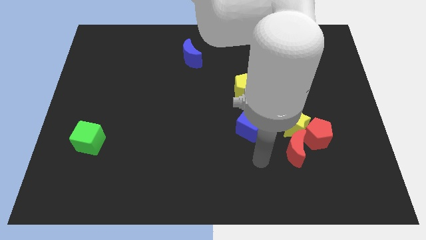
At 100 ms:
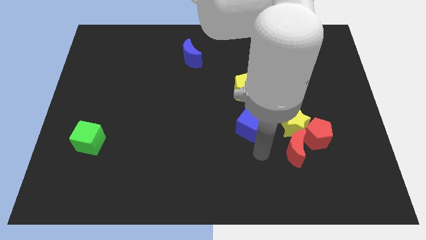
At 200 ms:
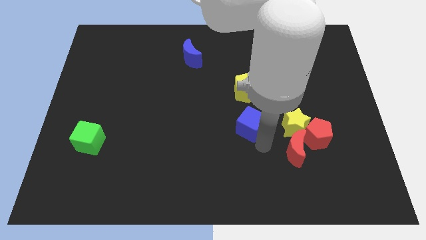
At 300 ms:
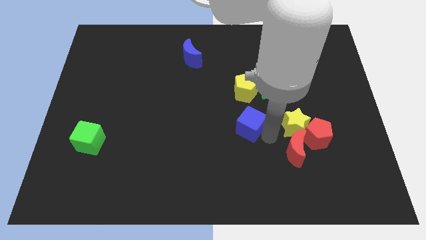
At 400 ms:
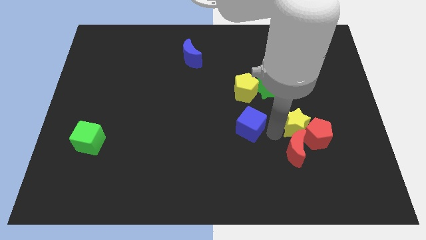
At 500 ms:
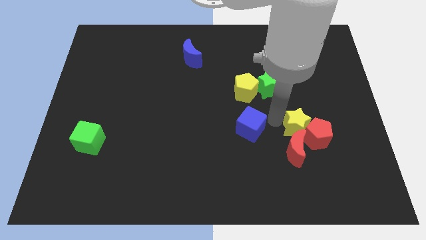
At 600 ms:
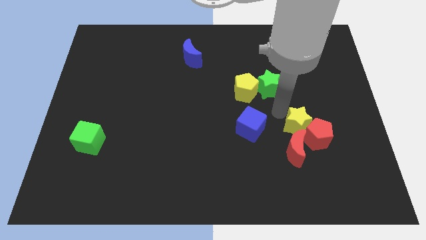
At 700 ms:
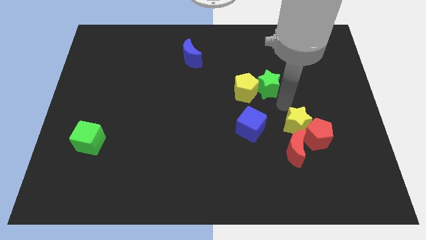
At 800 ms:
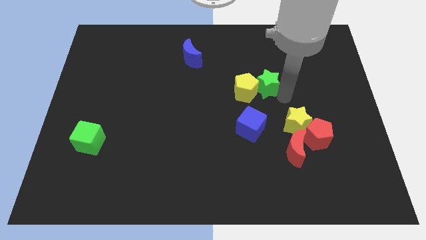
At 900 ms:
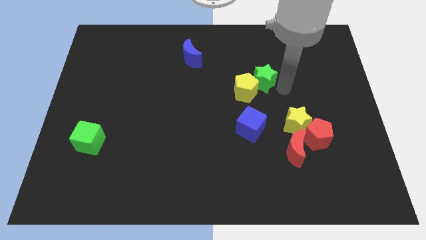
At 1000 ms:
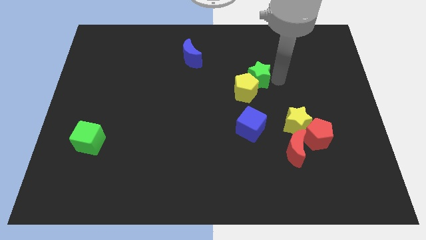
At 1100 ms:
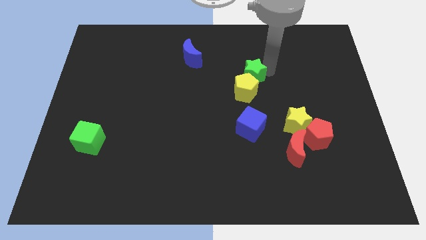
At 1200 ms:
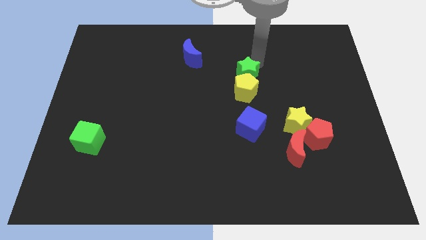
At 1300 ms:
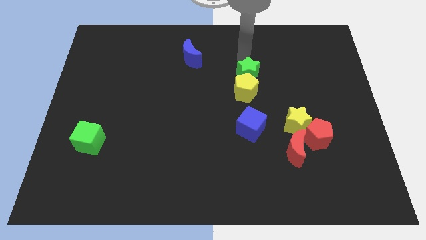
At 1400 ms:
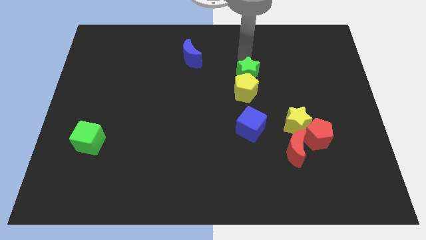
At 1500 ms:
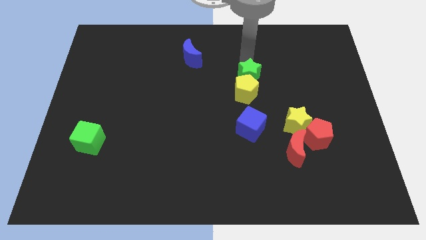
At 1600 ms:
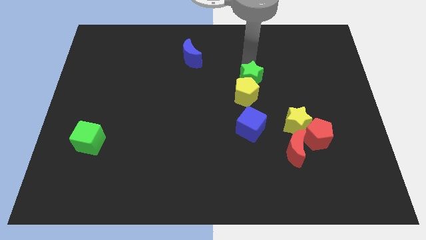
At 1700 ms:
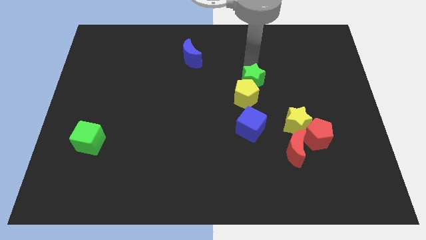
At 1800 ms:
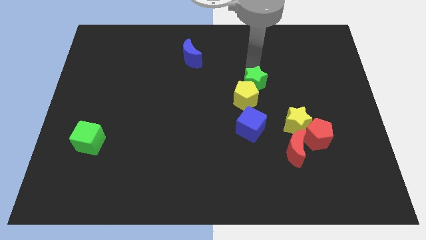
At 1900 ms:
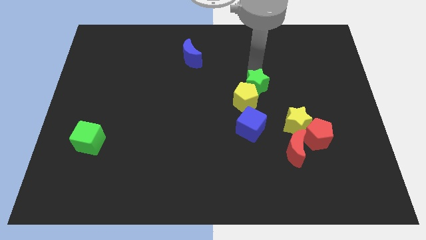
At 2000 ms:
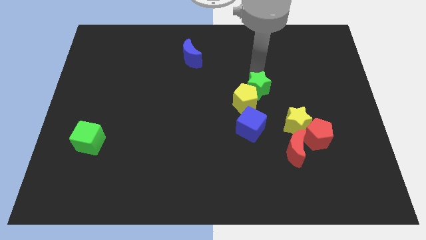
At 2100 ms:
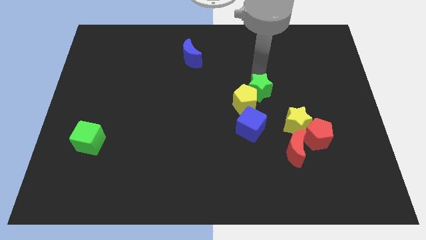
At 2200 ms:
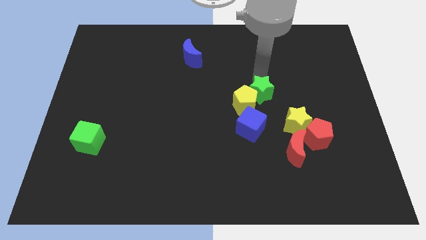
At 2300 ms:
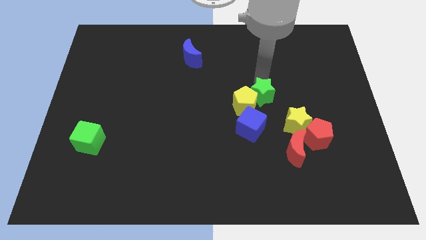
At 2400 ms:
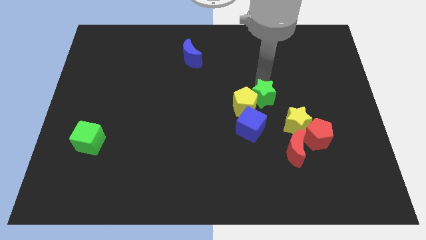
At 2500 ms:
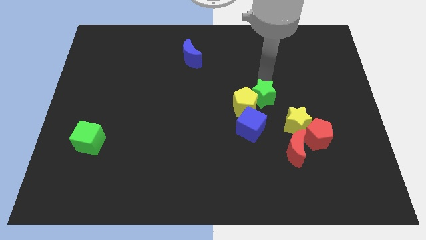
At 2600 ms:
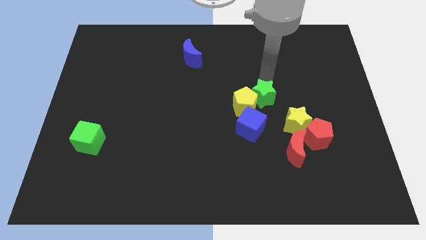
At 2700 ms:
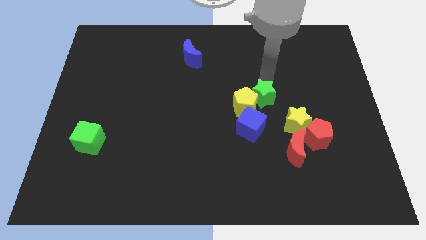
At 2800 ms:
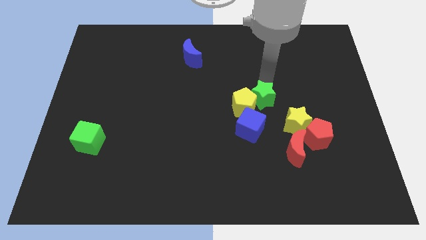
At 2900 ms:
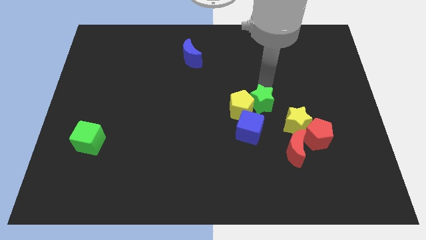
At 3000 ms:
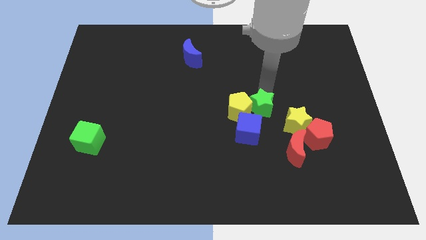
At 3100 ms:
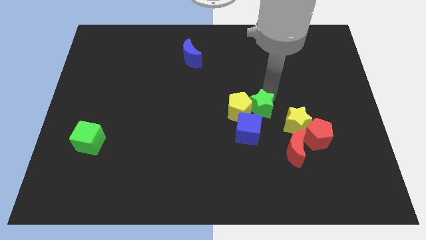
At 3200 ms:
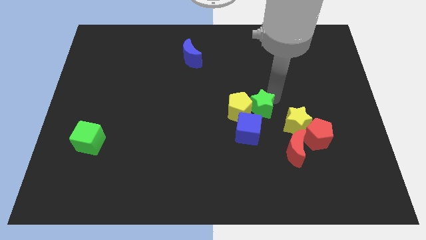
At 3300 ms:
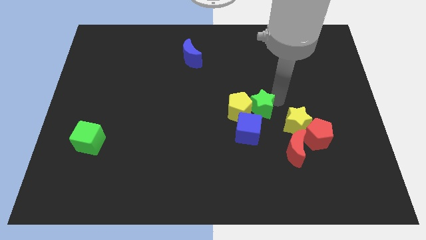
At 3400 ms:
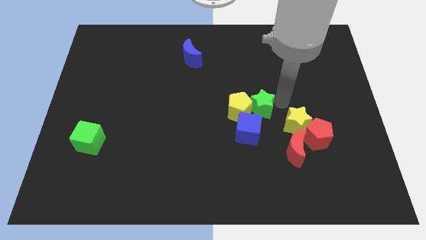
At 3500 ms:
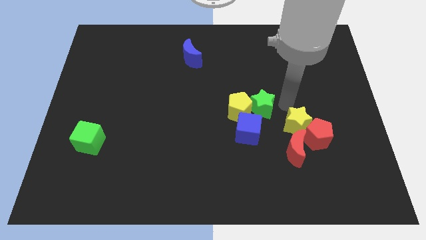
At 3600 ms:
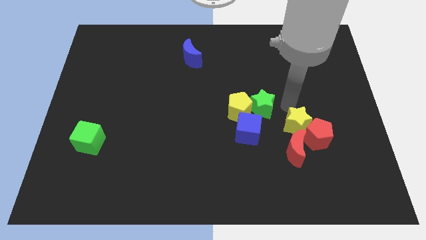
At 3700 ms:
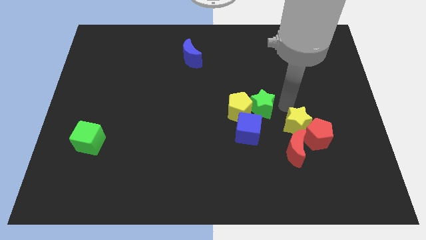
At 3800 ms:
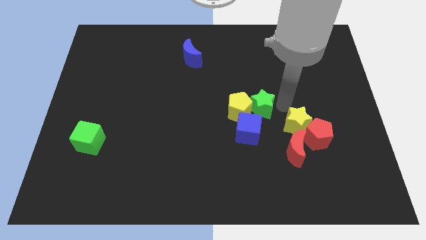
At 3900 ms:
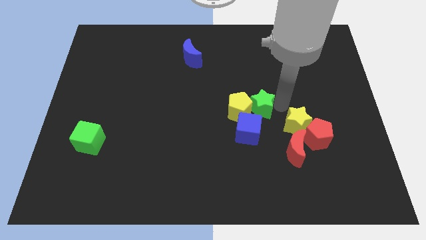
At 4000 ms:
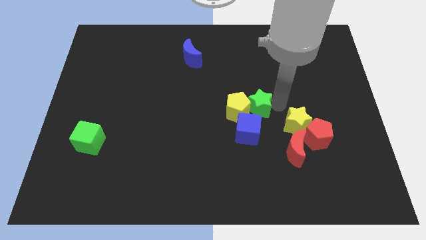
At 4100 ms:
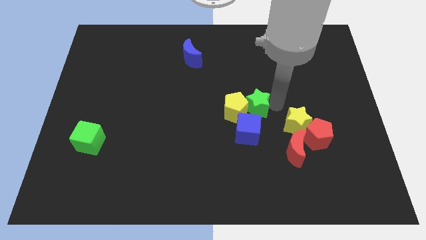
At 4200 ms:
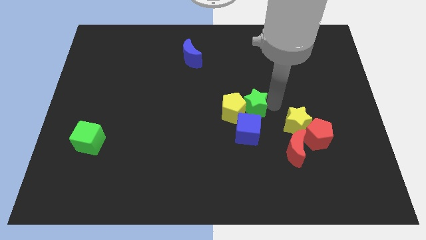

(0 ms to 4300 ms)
slightly slide the green star down and then left

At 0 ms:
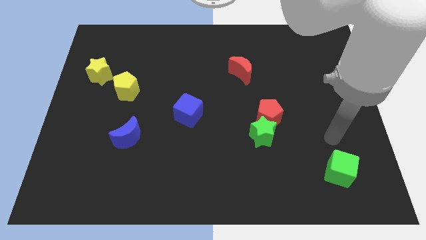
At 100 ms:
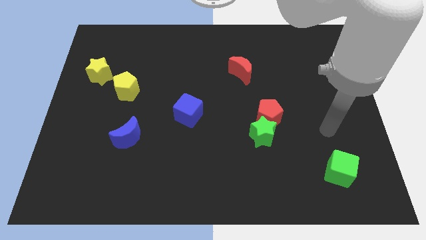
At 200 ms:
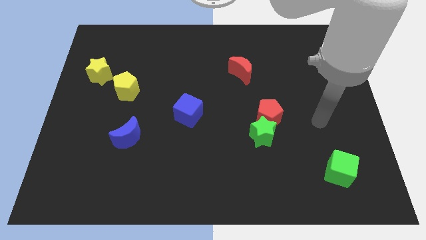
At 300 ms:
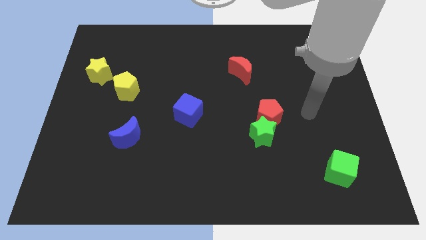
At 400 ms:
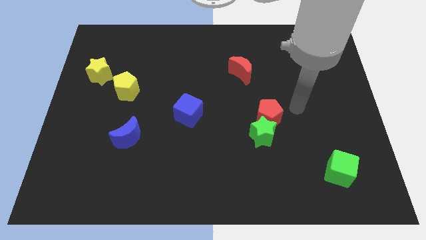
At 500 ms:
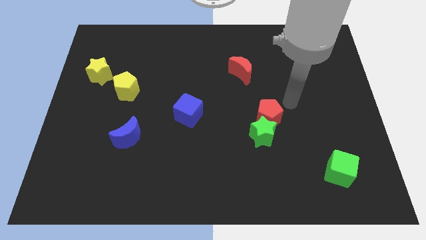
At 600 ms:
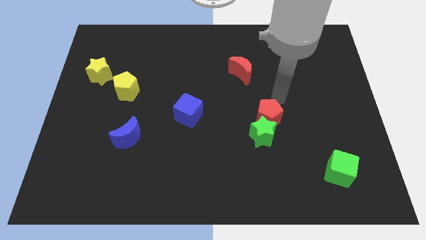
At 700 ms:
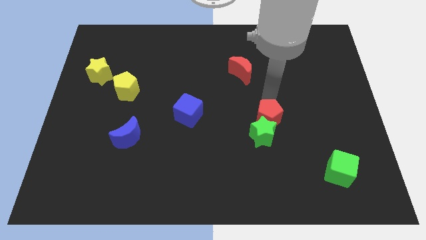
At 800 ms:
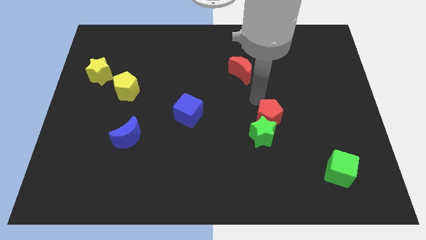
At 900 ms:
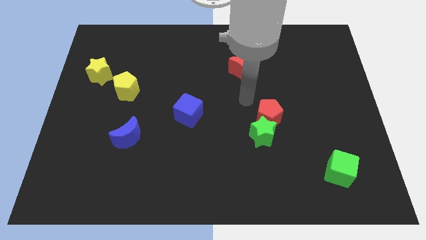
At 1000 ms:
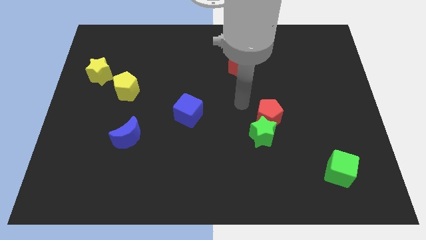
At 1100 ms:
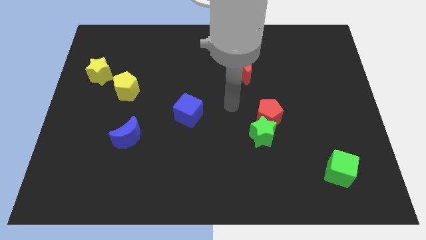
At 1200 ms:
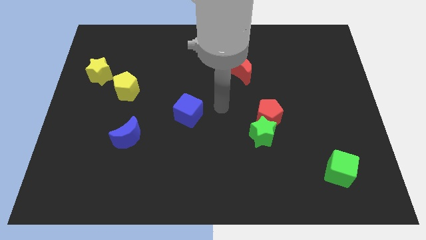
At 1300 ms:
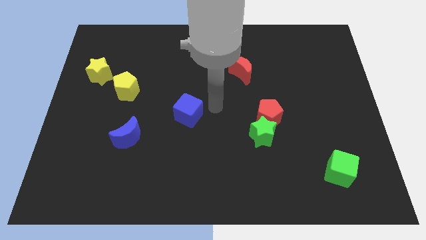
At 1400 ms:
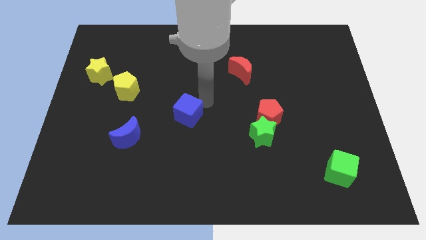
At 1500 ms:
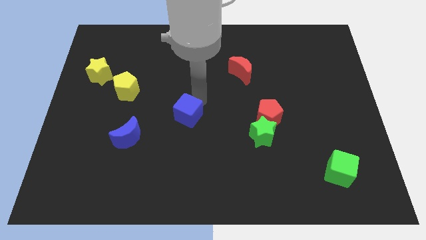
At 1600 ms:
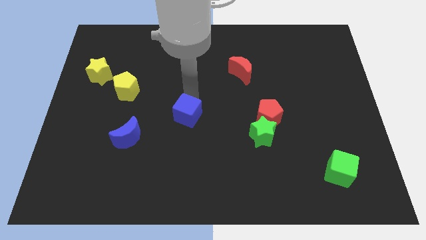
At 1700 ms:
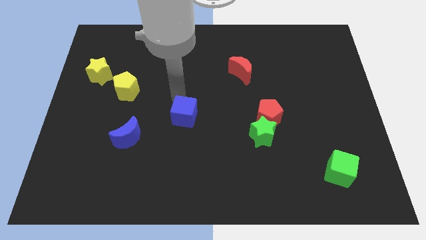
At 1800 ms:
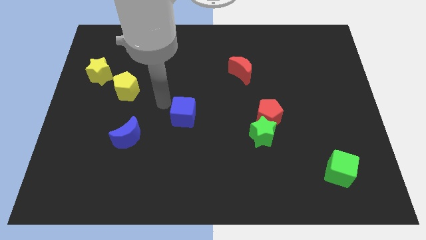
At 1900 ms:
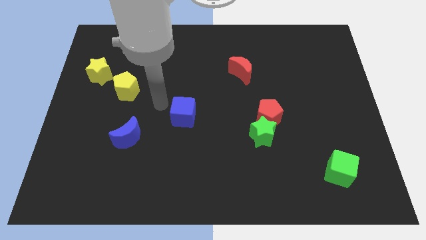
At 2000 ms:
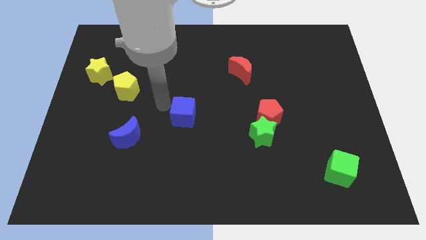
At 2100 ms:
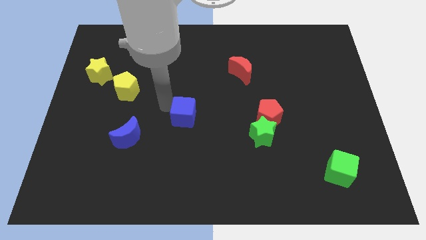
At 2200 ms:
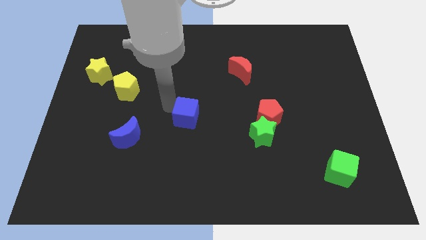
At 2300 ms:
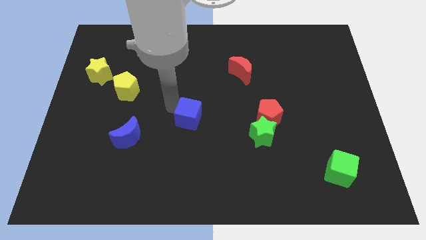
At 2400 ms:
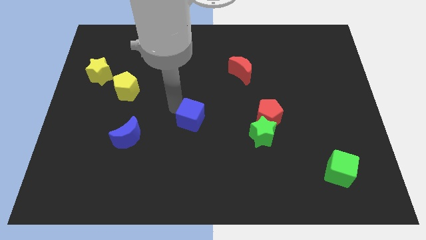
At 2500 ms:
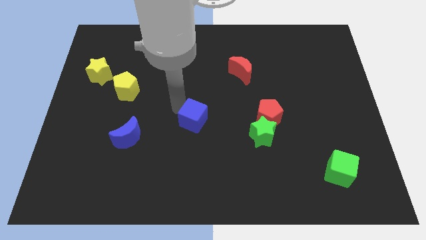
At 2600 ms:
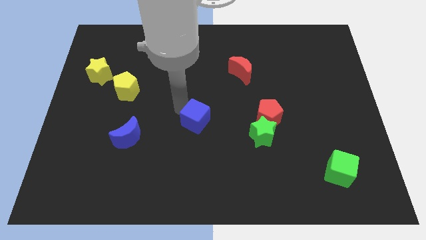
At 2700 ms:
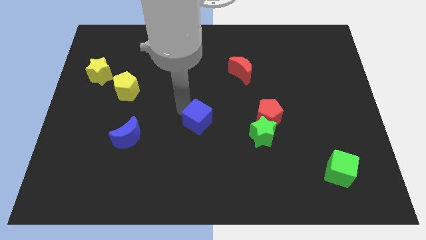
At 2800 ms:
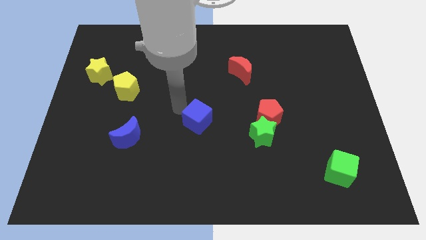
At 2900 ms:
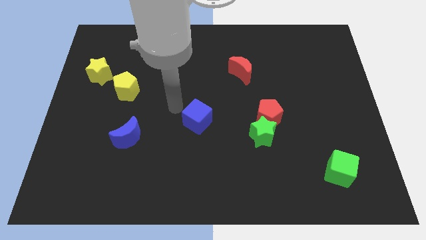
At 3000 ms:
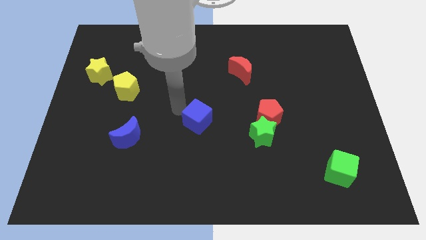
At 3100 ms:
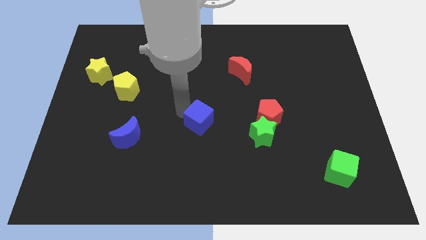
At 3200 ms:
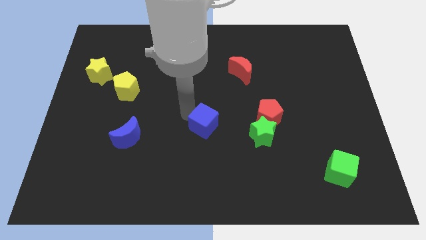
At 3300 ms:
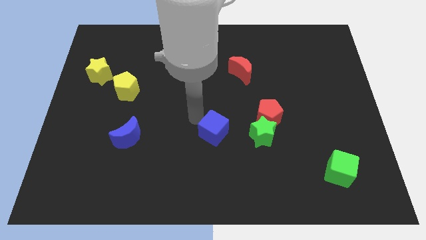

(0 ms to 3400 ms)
push the blue cube a bit down and then to the right

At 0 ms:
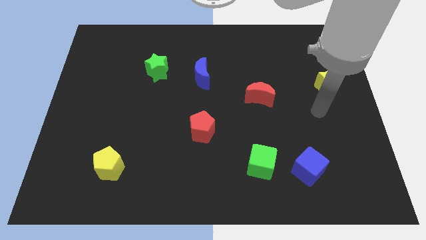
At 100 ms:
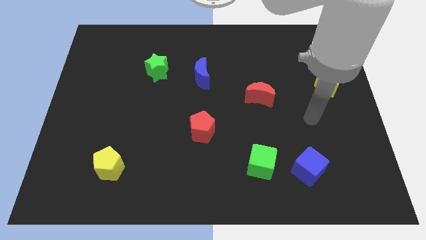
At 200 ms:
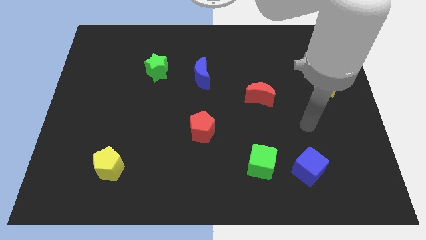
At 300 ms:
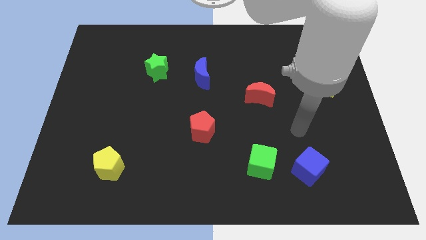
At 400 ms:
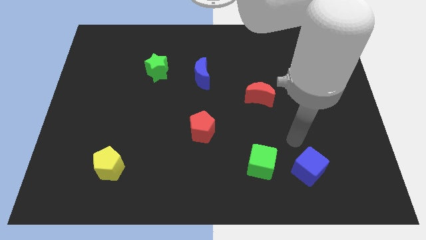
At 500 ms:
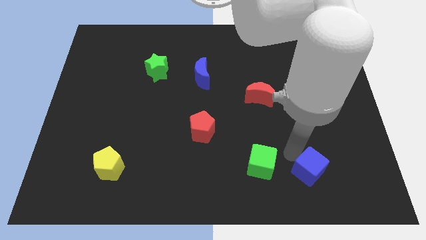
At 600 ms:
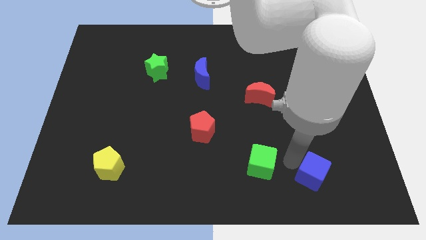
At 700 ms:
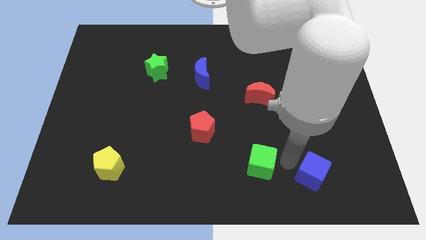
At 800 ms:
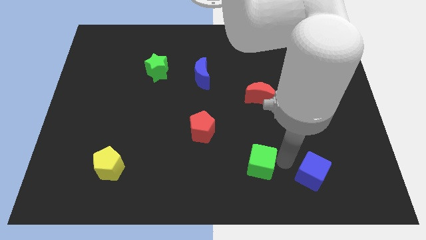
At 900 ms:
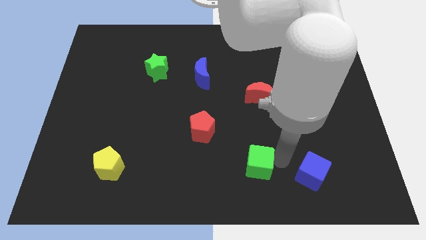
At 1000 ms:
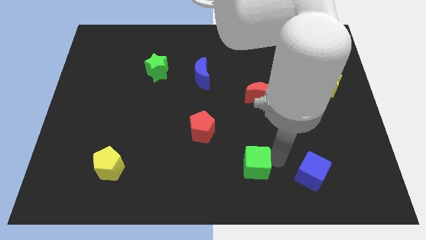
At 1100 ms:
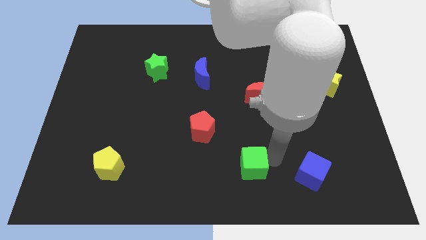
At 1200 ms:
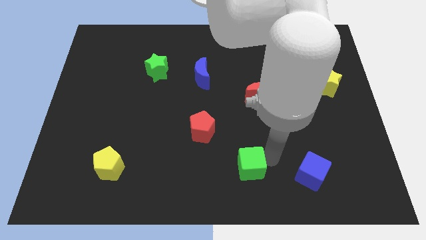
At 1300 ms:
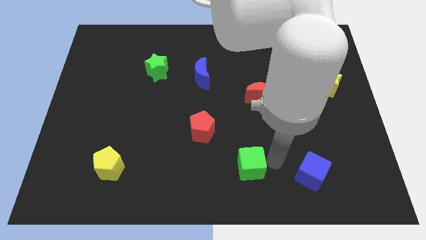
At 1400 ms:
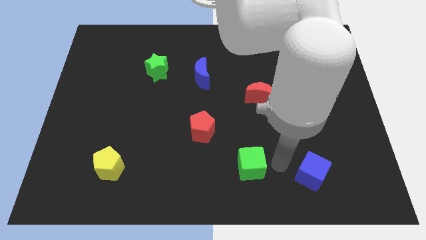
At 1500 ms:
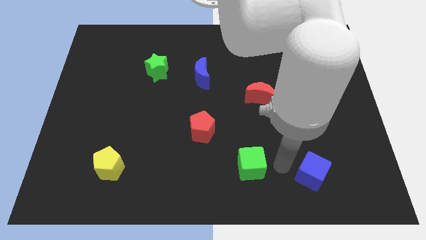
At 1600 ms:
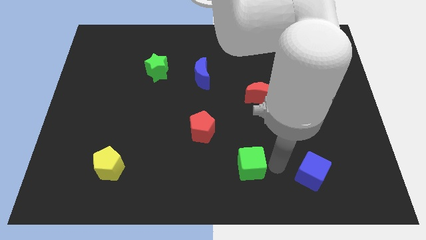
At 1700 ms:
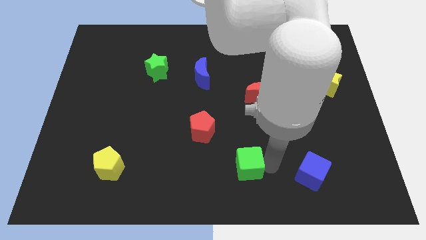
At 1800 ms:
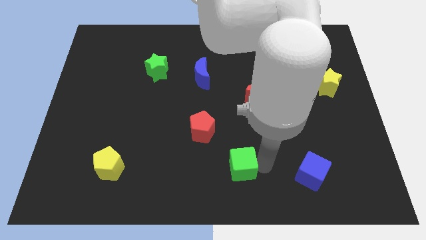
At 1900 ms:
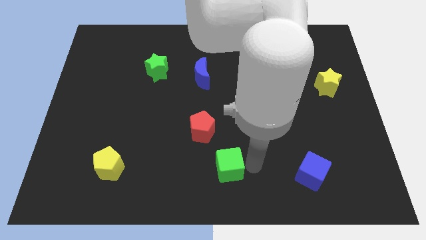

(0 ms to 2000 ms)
push the green cube to the left a bit
